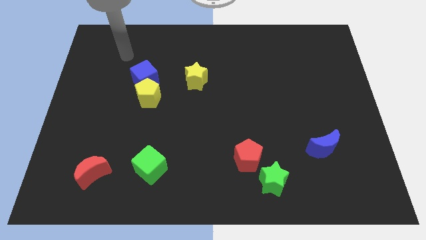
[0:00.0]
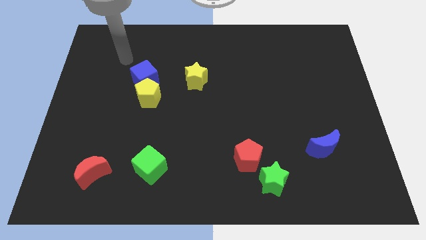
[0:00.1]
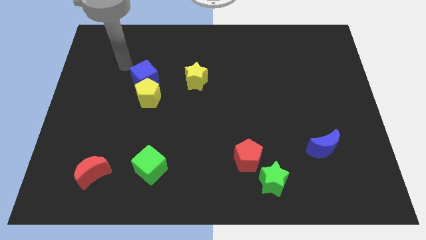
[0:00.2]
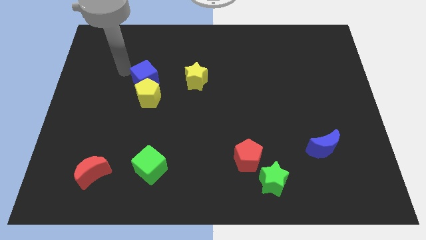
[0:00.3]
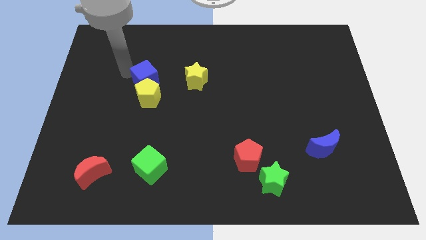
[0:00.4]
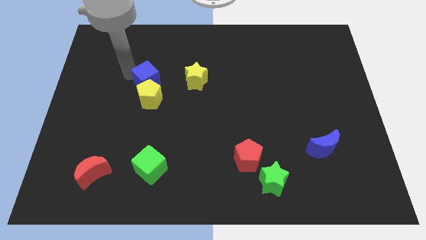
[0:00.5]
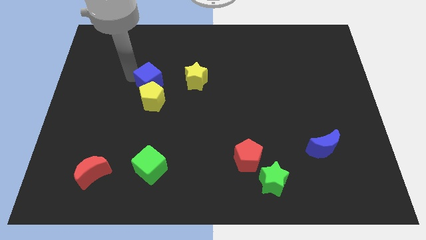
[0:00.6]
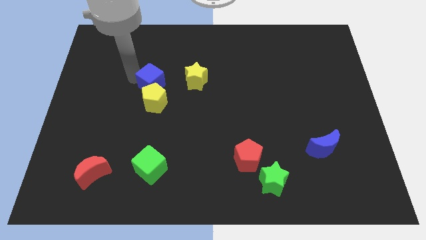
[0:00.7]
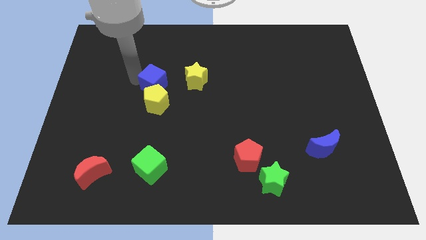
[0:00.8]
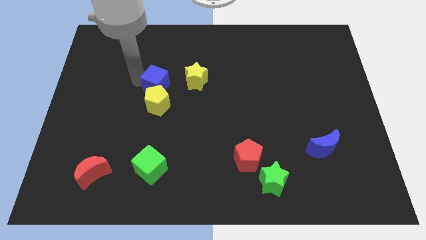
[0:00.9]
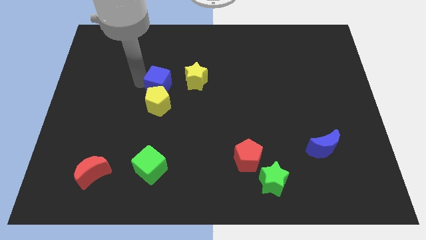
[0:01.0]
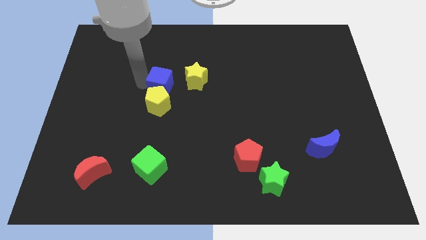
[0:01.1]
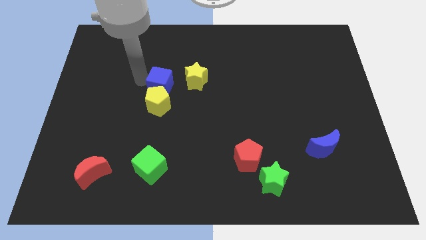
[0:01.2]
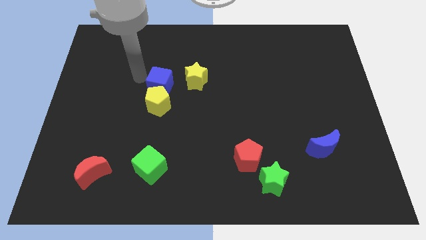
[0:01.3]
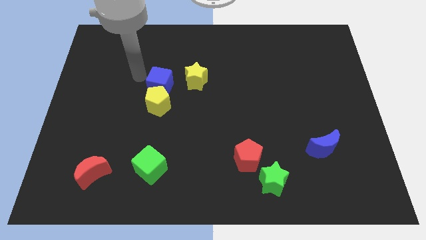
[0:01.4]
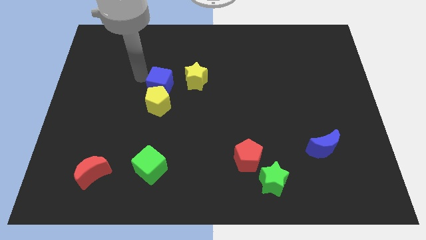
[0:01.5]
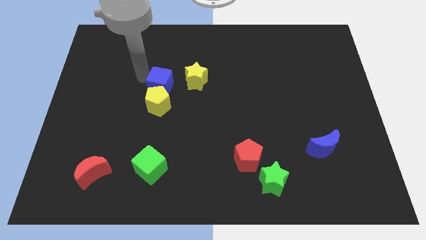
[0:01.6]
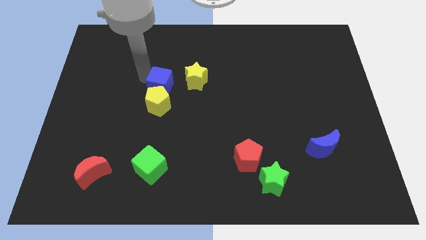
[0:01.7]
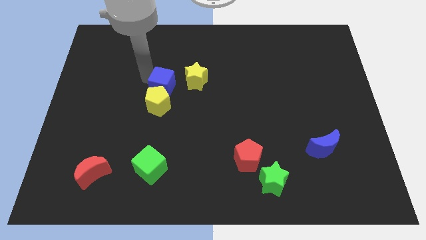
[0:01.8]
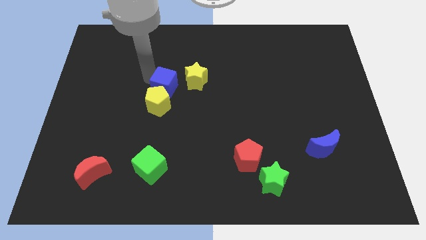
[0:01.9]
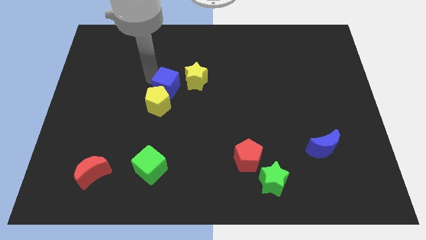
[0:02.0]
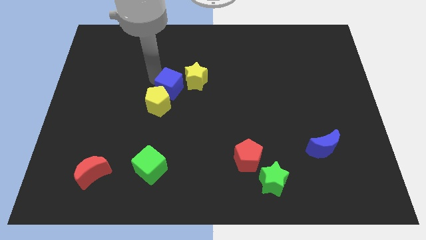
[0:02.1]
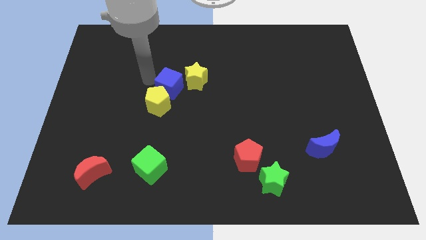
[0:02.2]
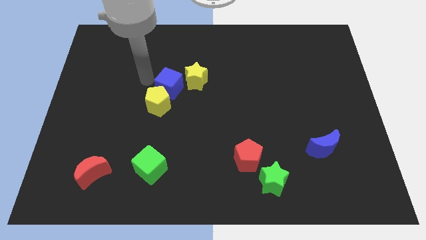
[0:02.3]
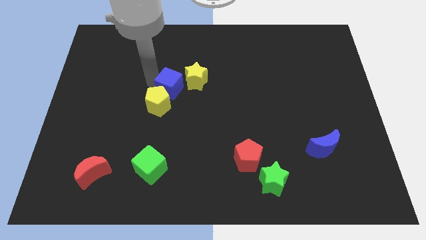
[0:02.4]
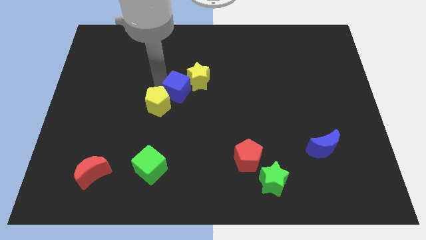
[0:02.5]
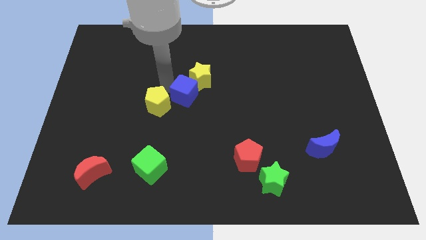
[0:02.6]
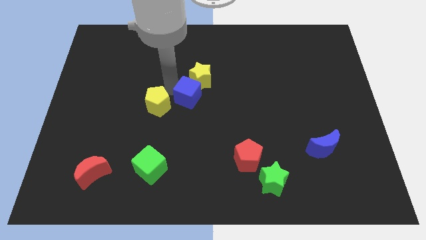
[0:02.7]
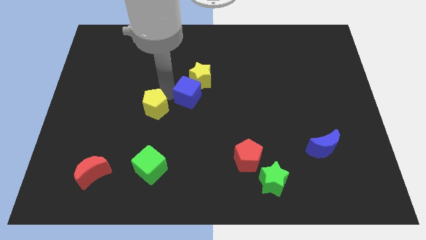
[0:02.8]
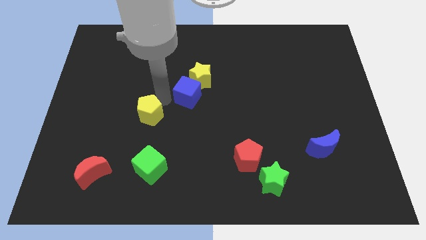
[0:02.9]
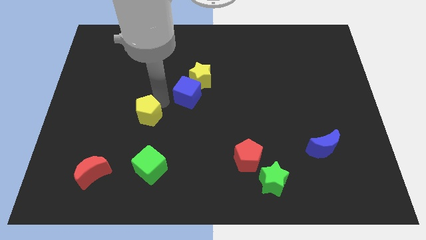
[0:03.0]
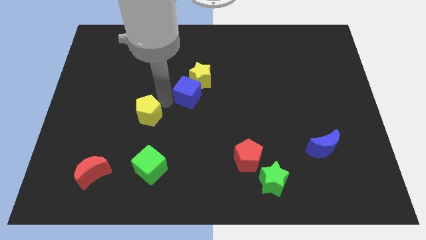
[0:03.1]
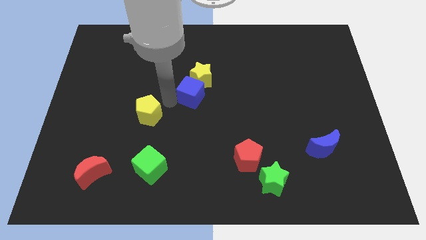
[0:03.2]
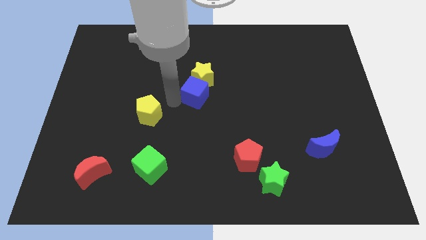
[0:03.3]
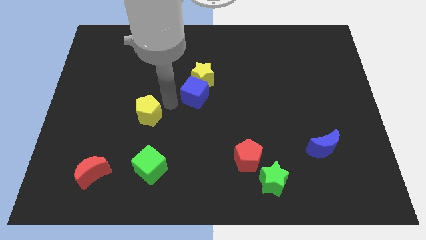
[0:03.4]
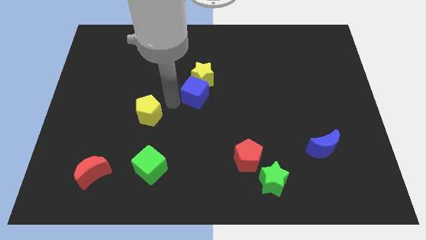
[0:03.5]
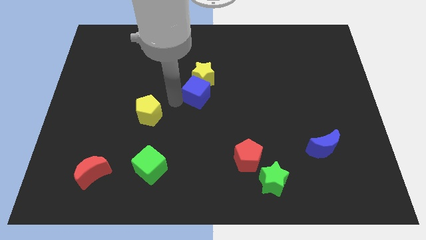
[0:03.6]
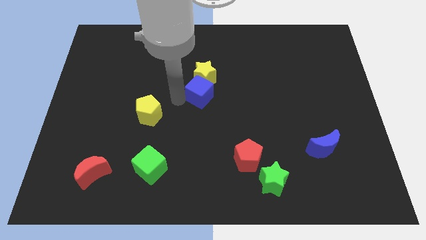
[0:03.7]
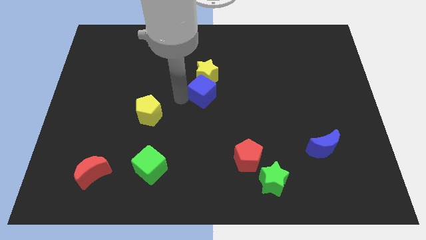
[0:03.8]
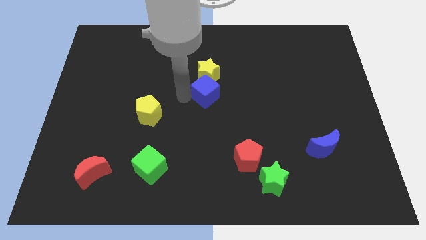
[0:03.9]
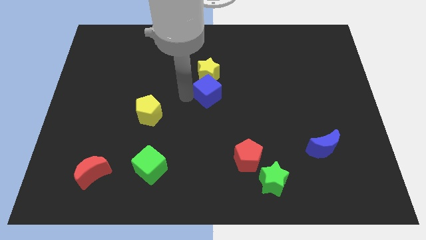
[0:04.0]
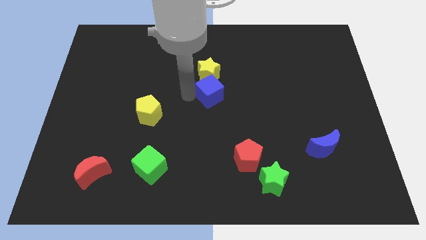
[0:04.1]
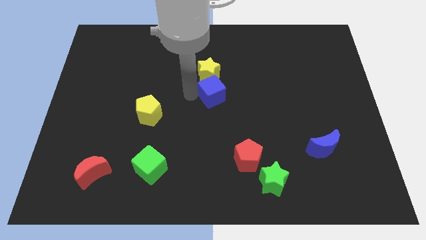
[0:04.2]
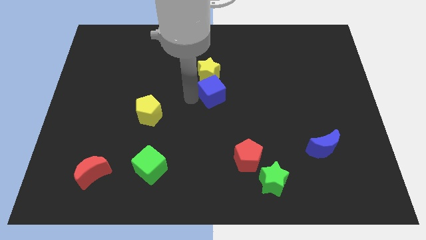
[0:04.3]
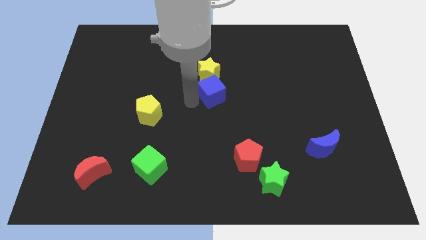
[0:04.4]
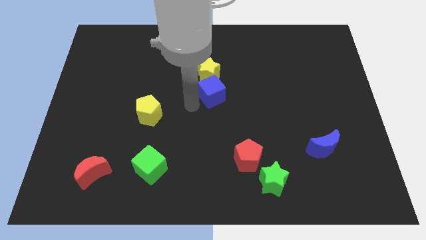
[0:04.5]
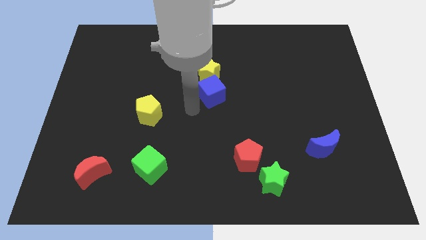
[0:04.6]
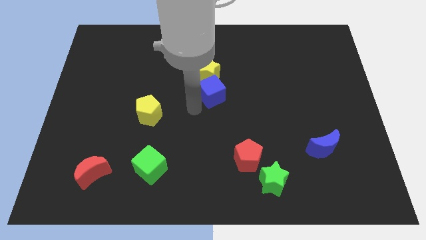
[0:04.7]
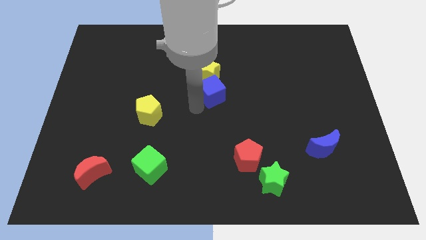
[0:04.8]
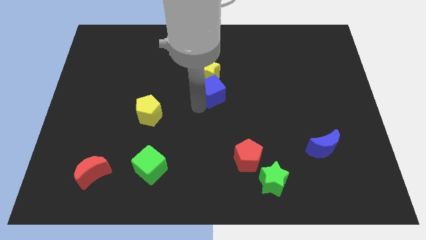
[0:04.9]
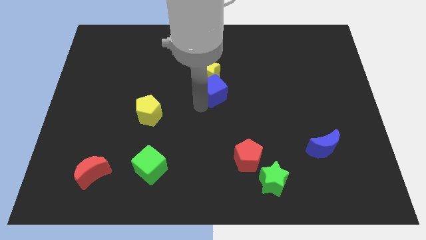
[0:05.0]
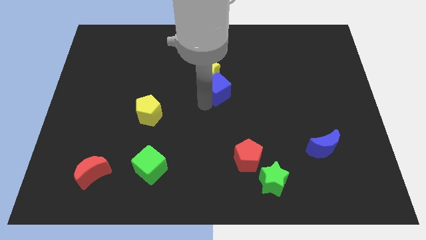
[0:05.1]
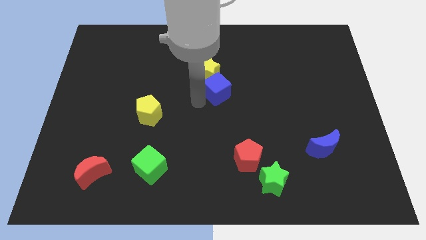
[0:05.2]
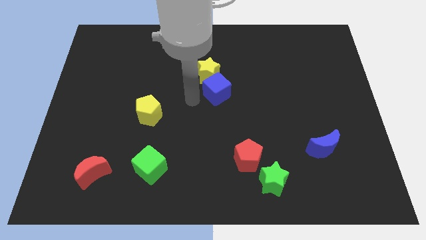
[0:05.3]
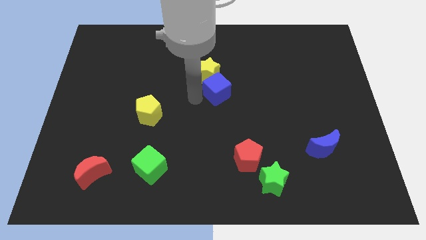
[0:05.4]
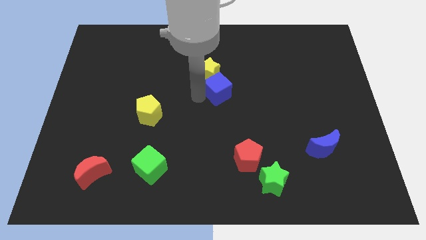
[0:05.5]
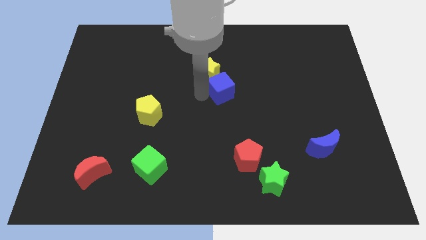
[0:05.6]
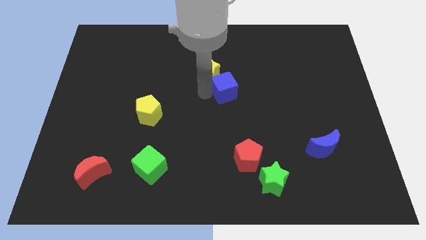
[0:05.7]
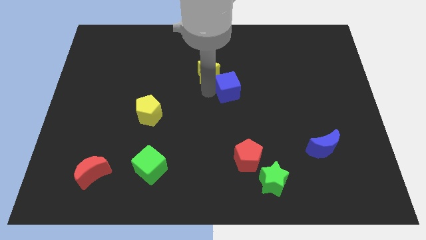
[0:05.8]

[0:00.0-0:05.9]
push the blue cube to the right

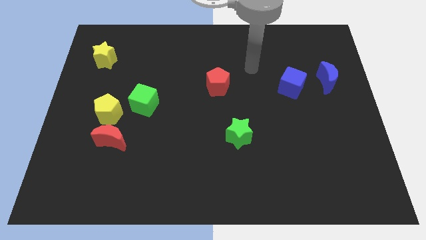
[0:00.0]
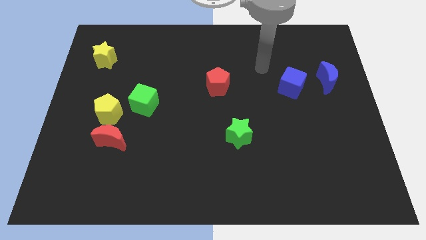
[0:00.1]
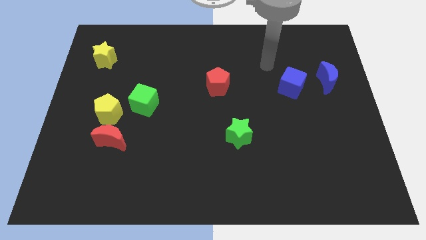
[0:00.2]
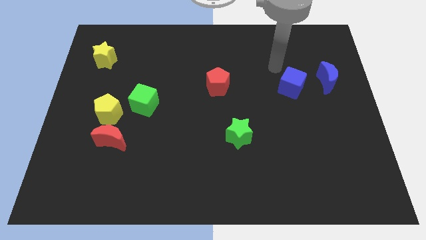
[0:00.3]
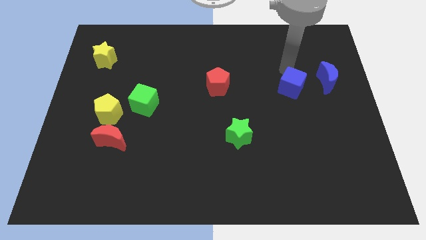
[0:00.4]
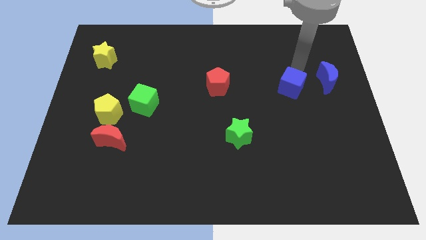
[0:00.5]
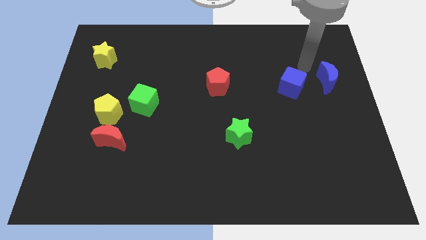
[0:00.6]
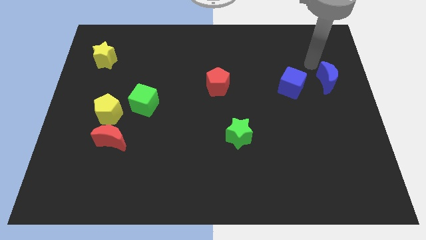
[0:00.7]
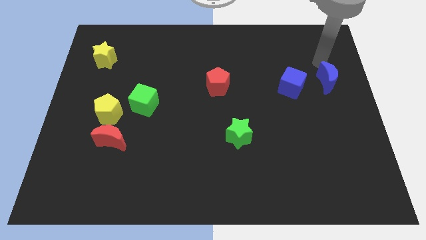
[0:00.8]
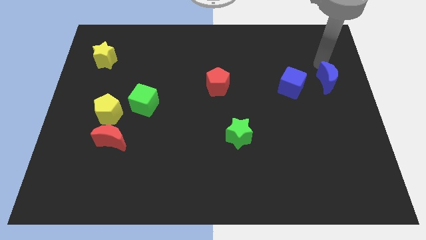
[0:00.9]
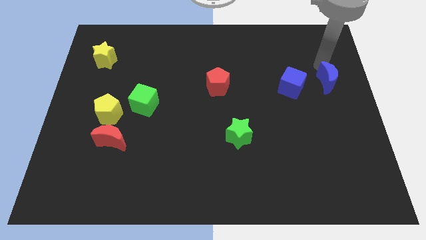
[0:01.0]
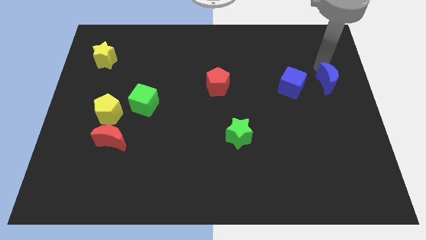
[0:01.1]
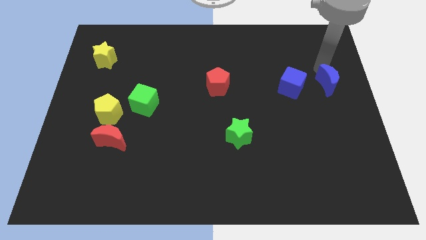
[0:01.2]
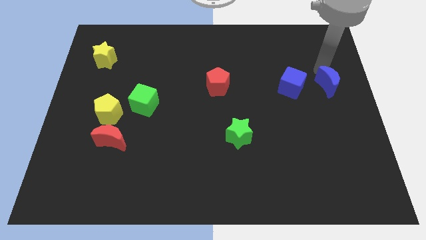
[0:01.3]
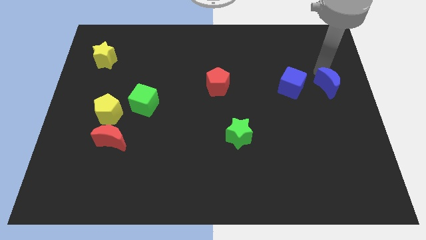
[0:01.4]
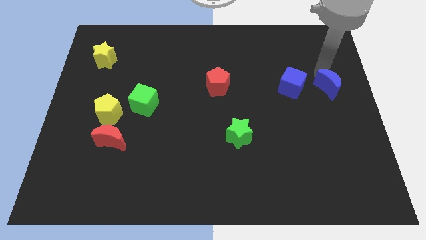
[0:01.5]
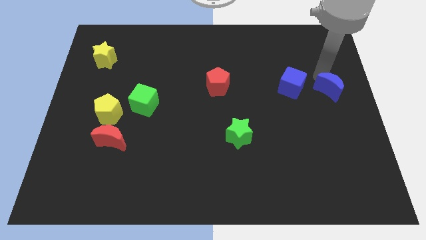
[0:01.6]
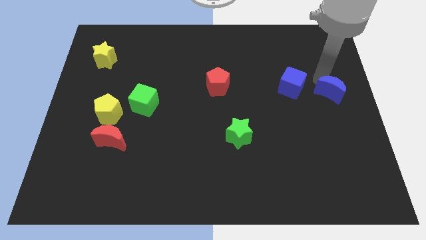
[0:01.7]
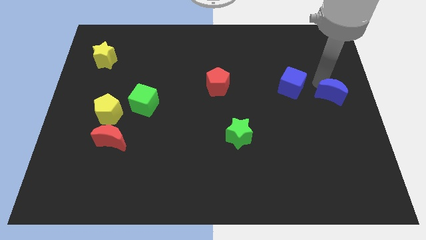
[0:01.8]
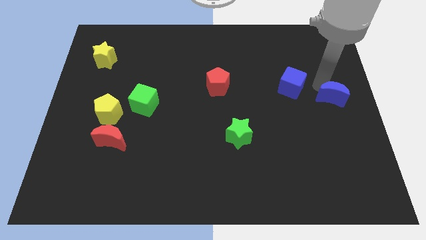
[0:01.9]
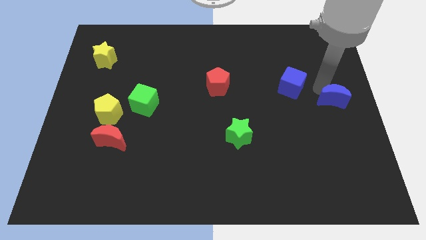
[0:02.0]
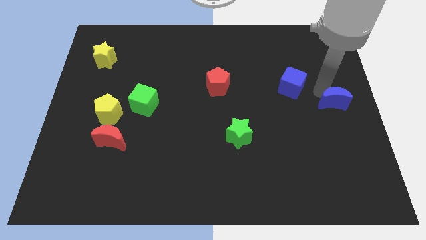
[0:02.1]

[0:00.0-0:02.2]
push the blue moon downwards a bit

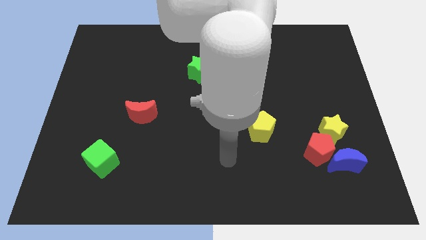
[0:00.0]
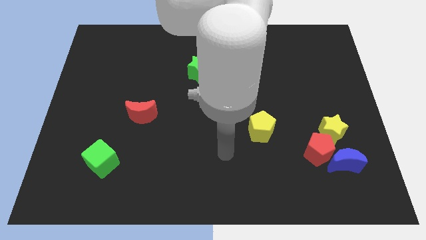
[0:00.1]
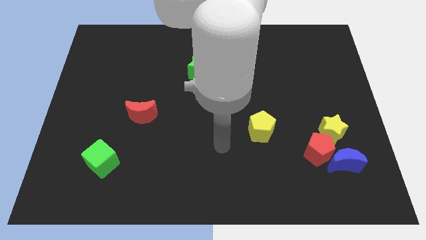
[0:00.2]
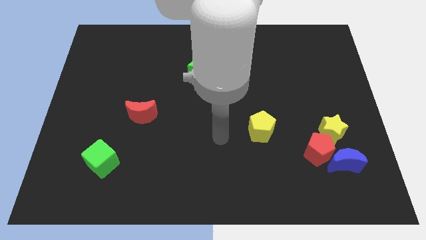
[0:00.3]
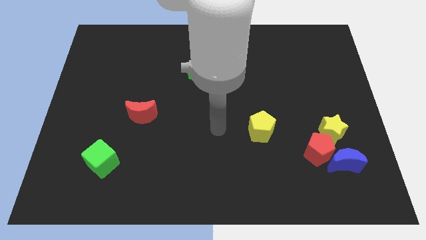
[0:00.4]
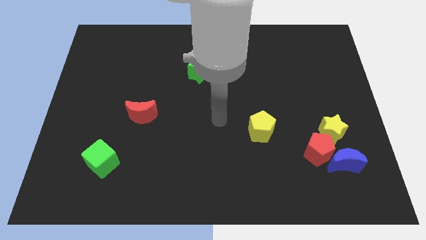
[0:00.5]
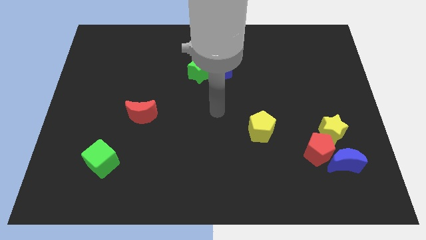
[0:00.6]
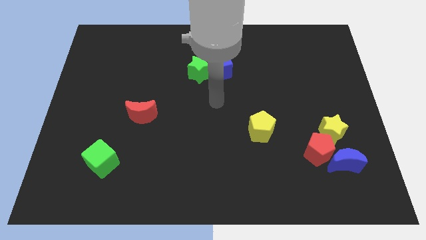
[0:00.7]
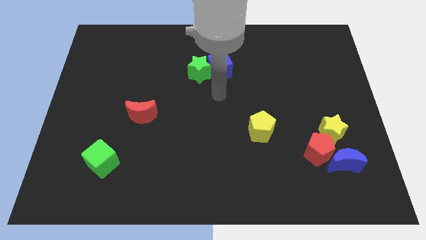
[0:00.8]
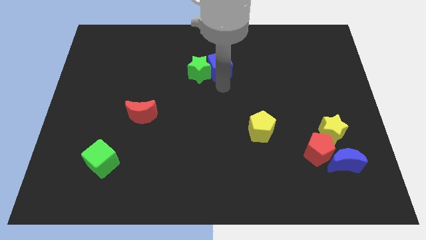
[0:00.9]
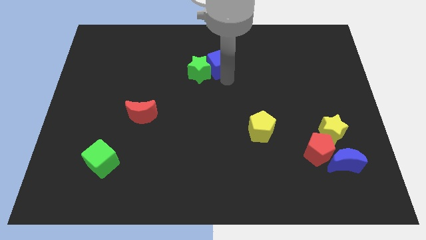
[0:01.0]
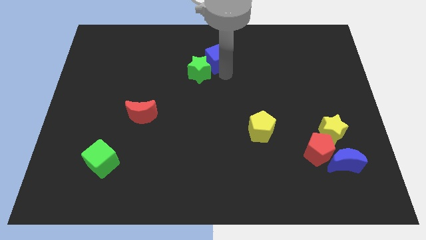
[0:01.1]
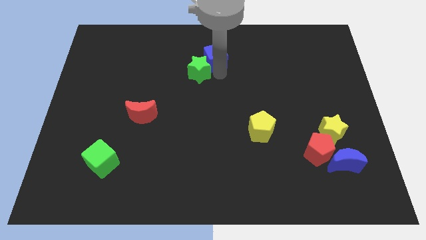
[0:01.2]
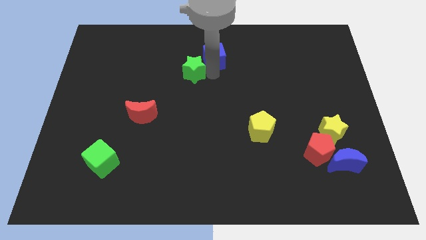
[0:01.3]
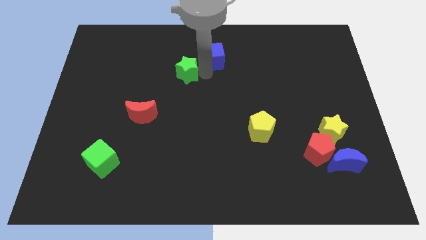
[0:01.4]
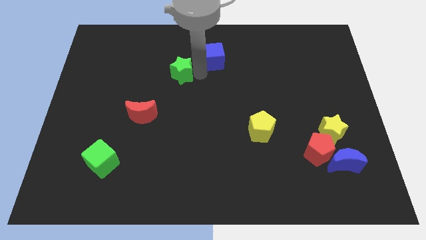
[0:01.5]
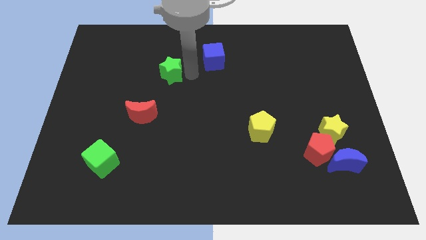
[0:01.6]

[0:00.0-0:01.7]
push the green star left a little bit
